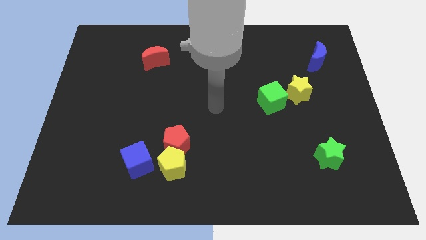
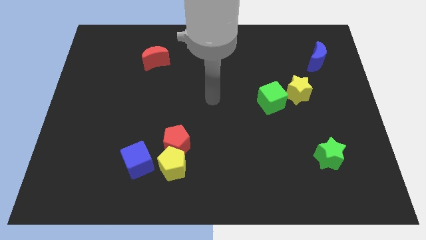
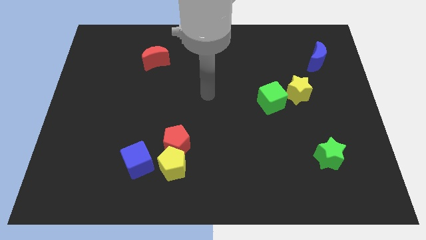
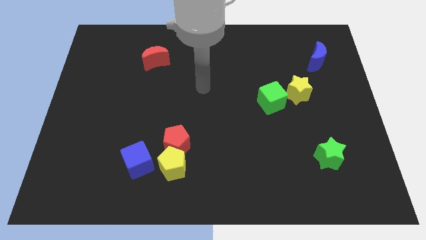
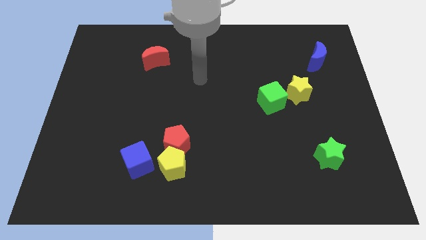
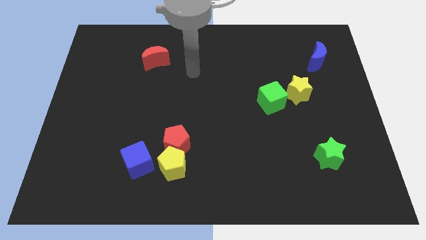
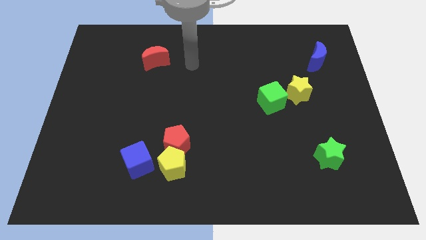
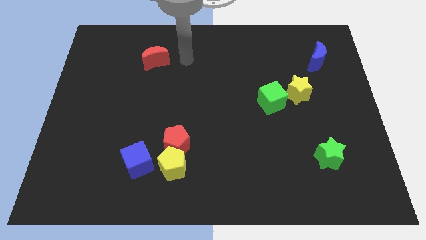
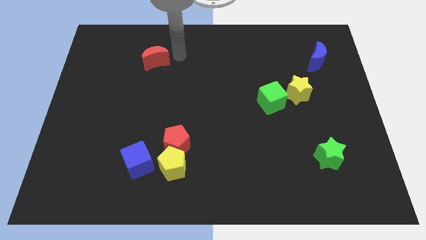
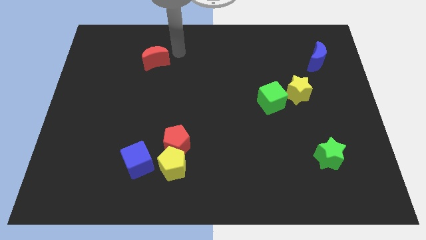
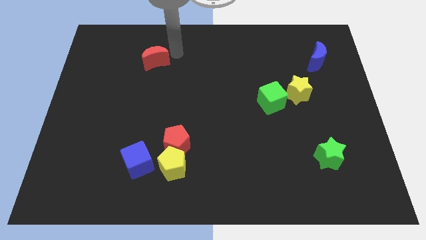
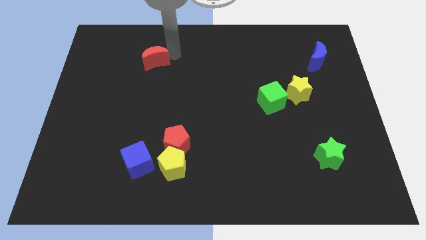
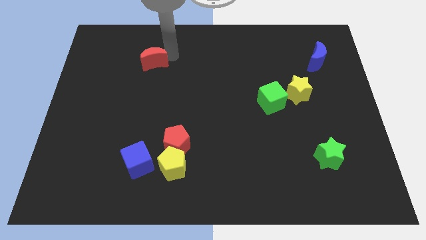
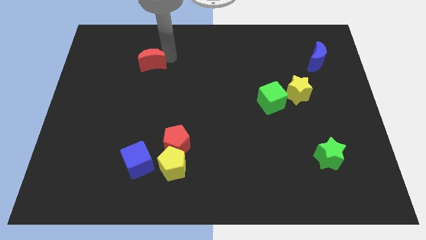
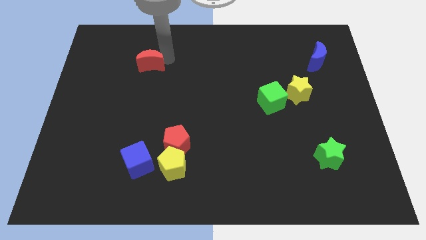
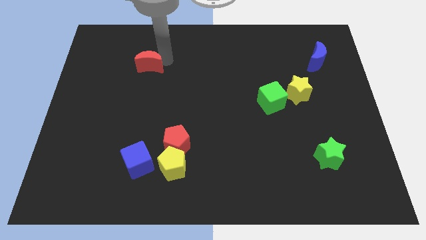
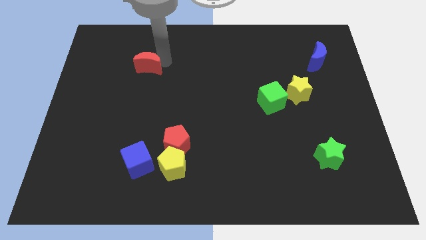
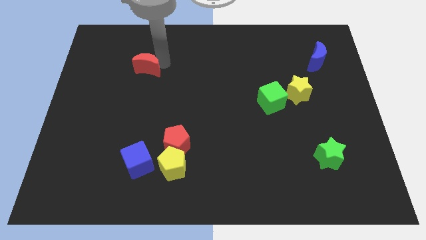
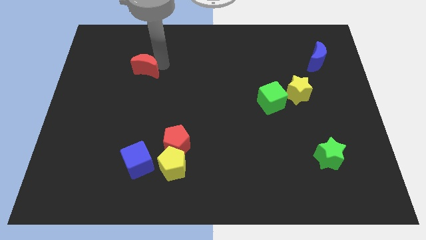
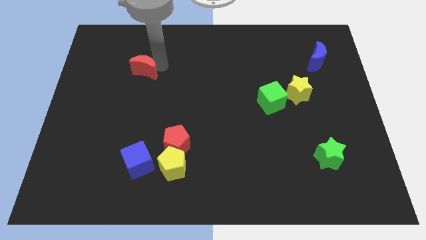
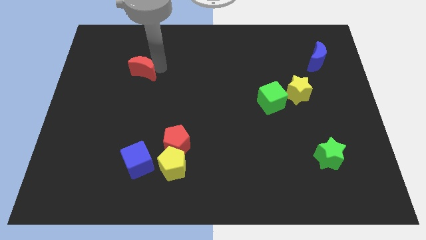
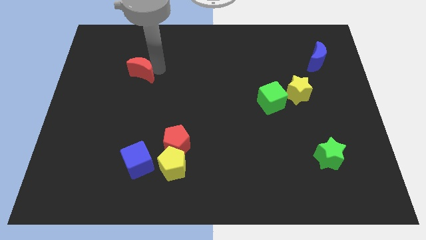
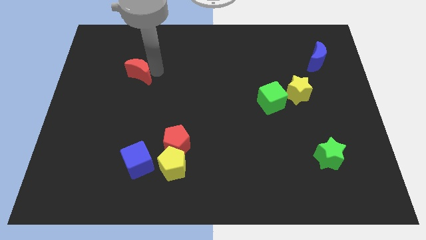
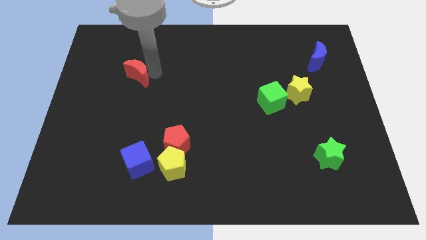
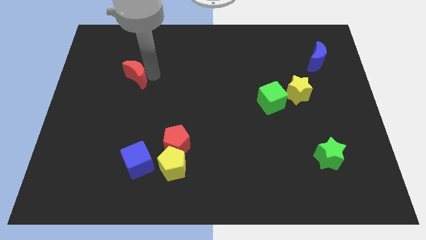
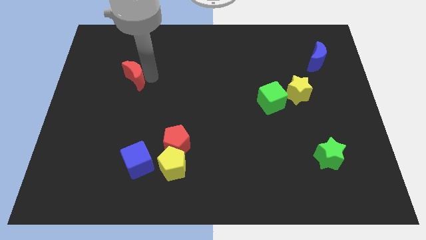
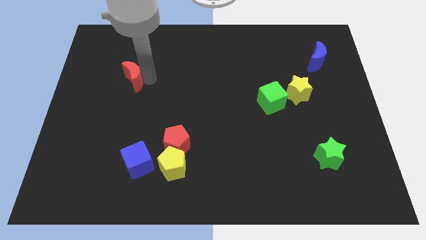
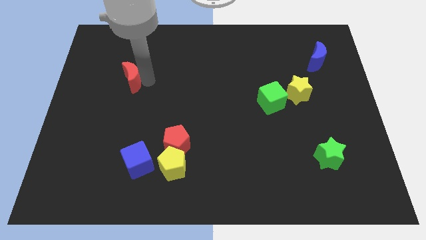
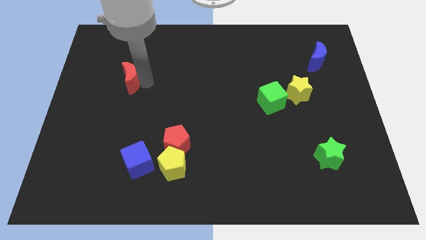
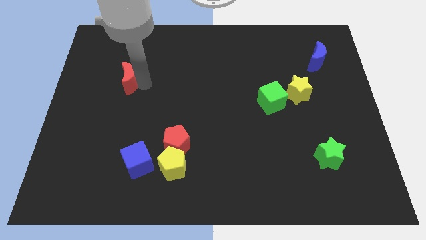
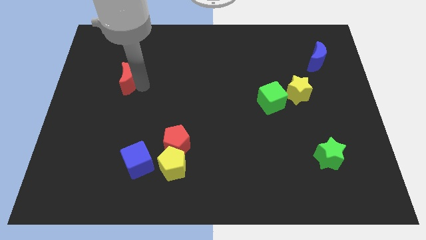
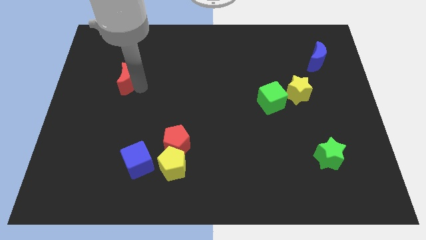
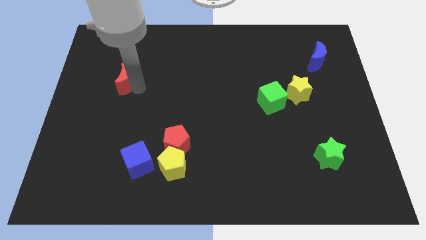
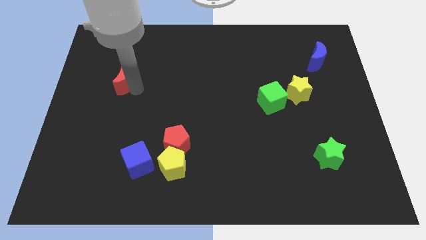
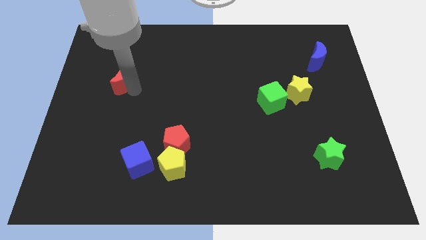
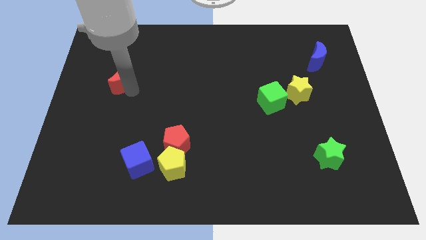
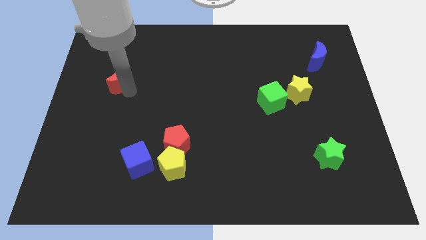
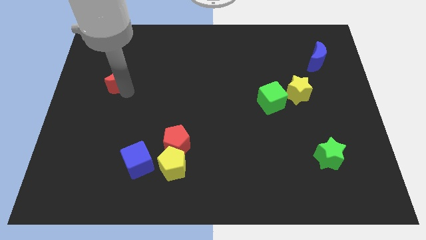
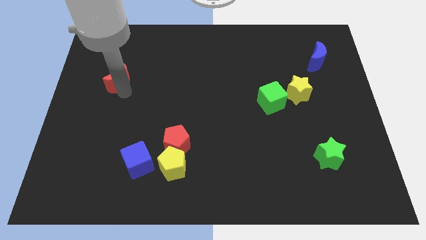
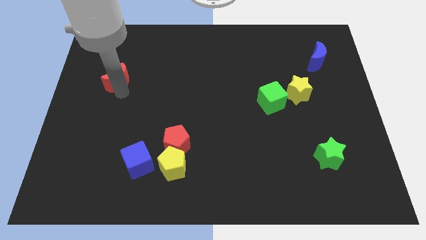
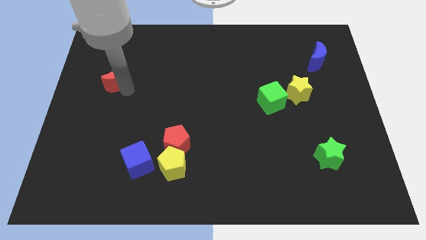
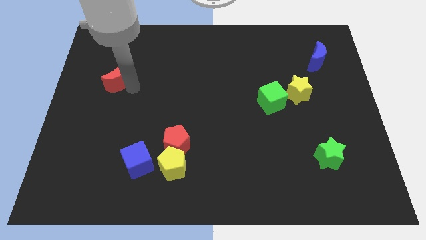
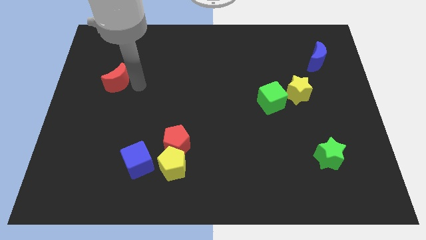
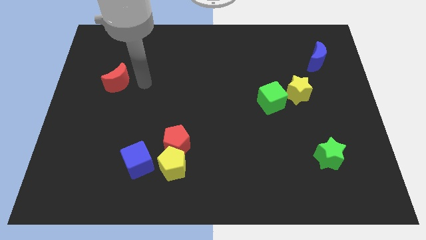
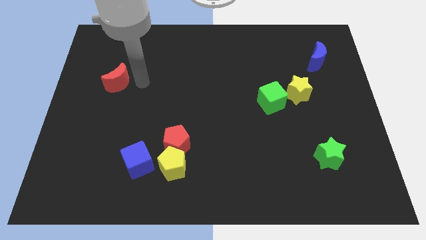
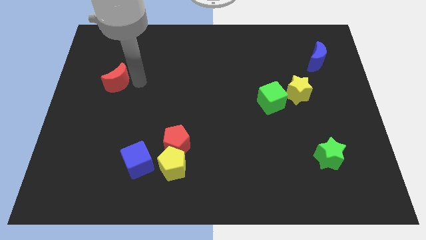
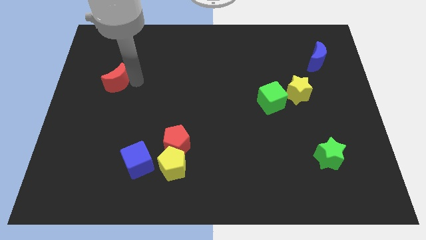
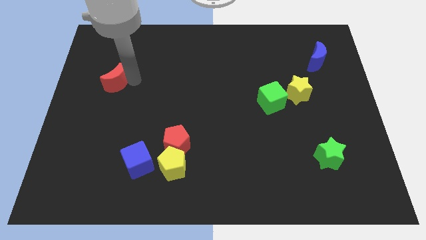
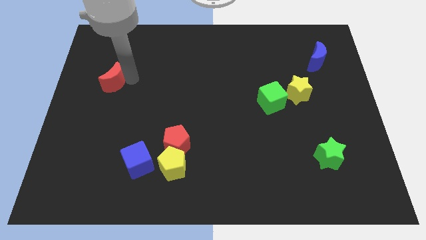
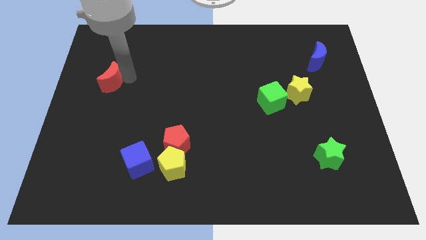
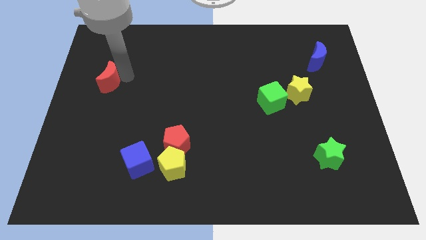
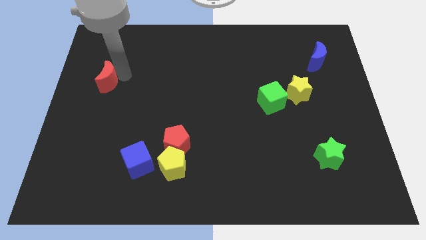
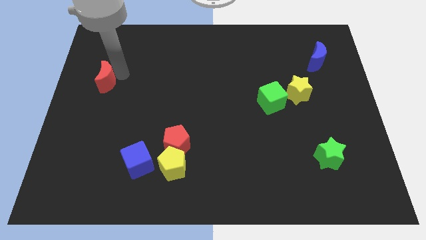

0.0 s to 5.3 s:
push the red moon to the center left
